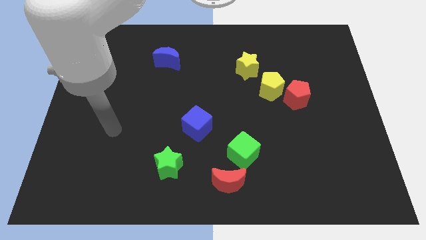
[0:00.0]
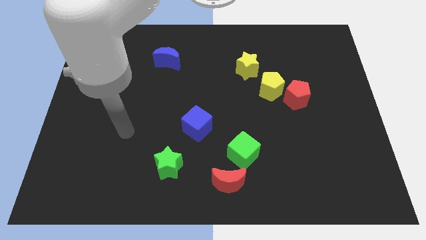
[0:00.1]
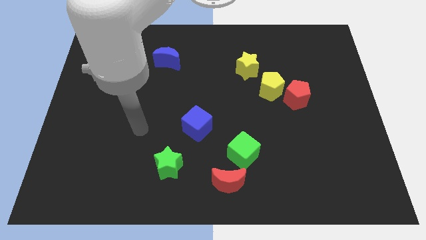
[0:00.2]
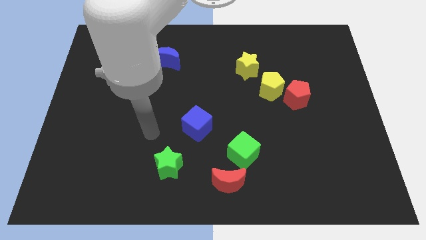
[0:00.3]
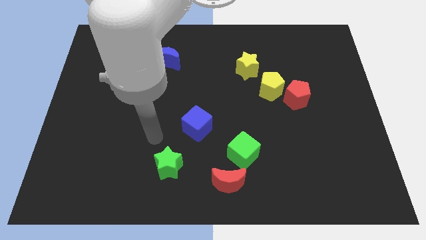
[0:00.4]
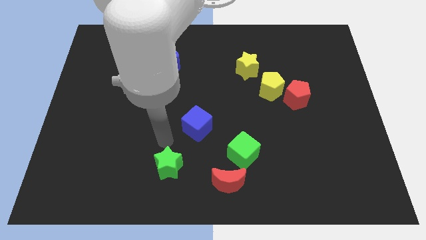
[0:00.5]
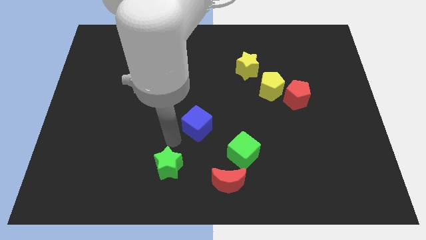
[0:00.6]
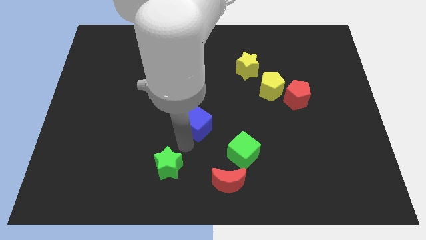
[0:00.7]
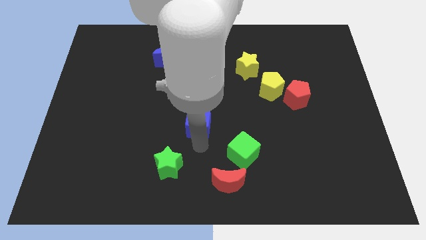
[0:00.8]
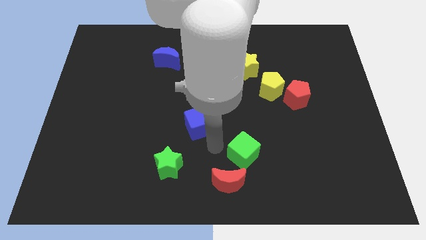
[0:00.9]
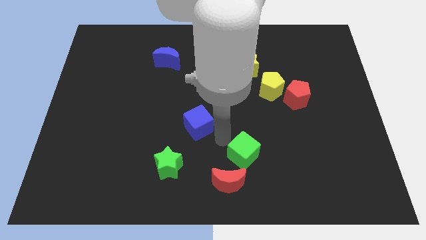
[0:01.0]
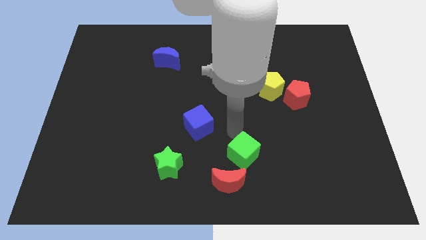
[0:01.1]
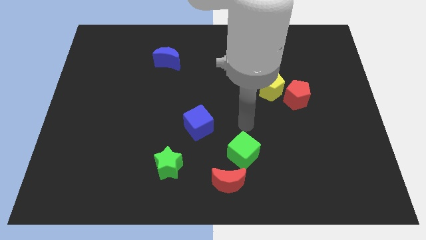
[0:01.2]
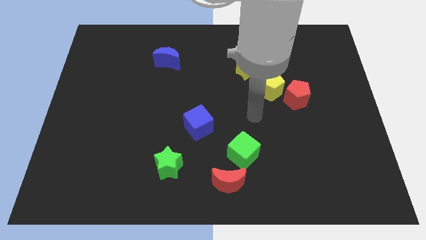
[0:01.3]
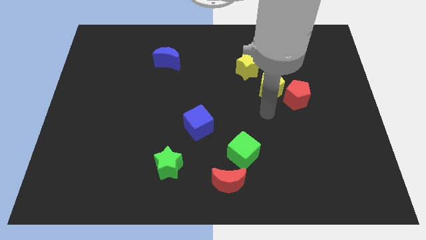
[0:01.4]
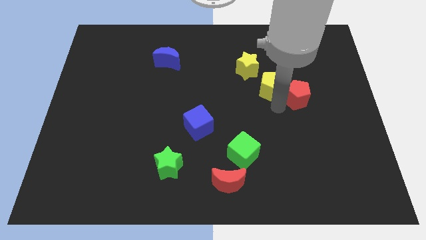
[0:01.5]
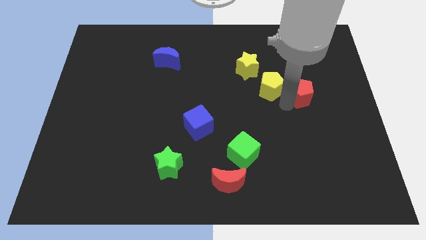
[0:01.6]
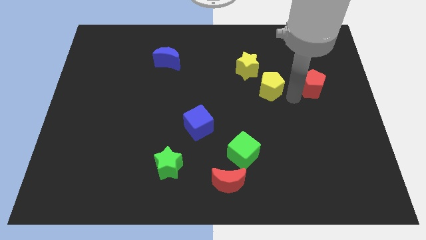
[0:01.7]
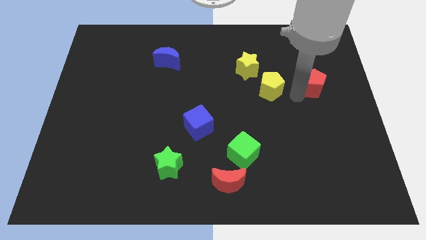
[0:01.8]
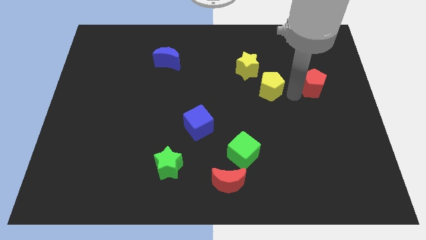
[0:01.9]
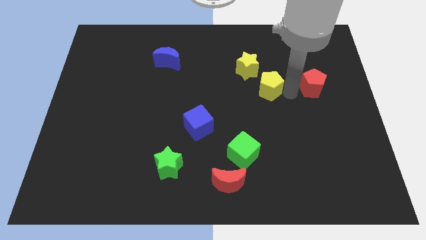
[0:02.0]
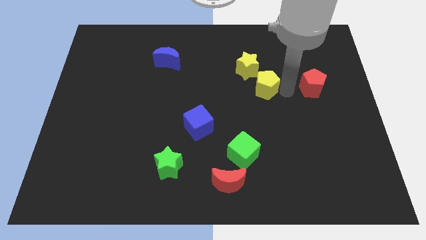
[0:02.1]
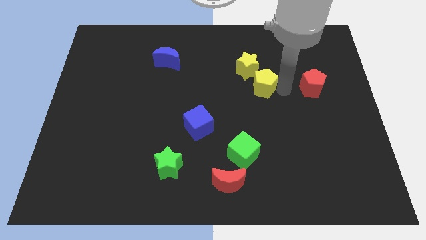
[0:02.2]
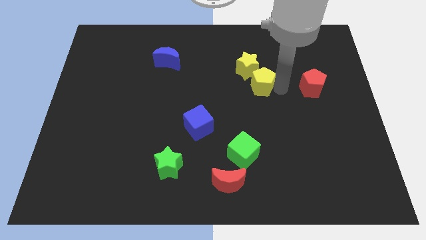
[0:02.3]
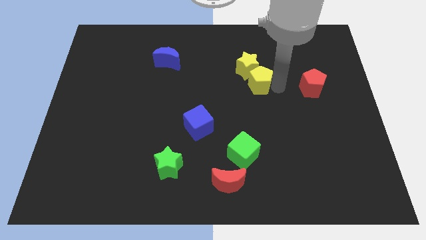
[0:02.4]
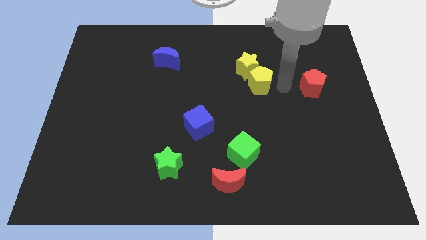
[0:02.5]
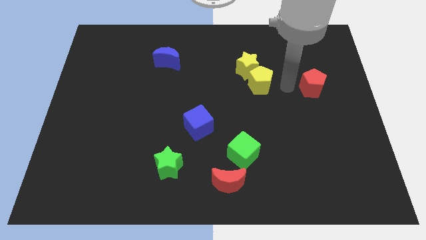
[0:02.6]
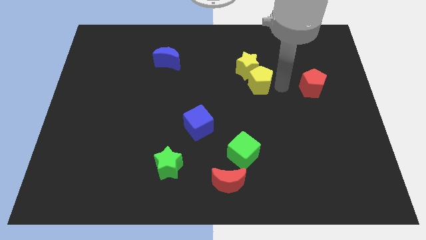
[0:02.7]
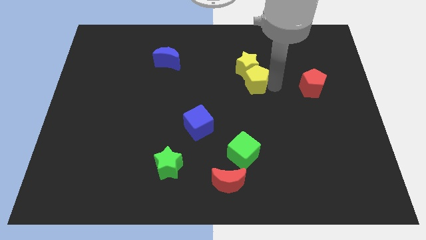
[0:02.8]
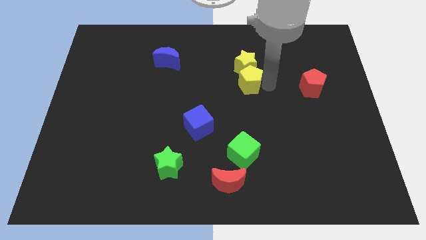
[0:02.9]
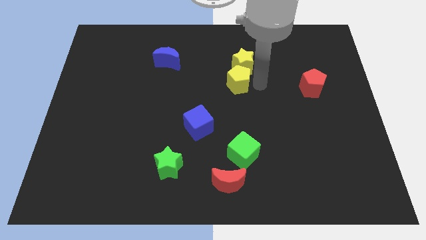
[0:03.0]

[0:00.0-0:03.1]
slightly push the yellow pentagon left

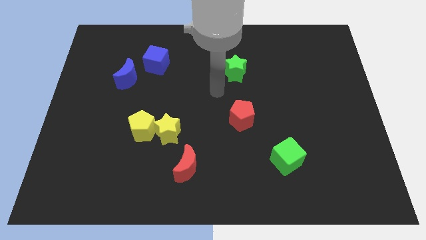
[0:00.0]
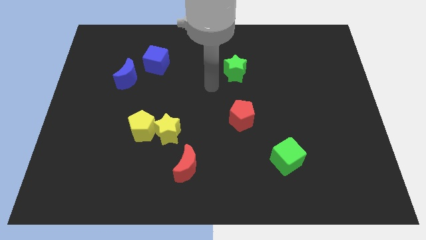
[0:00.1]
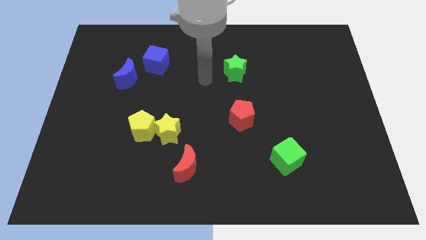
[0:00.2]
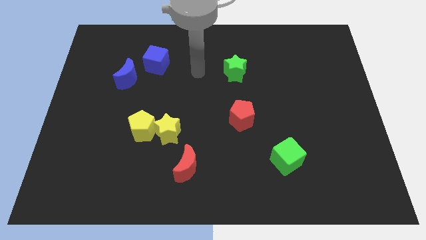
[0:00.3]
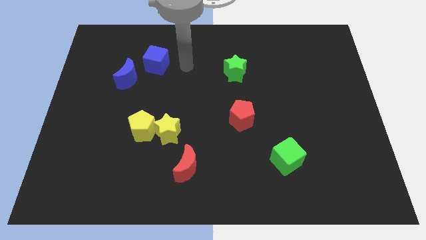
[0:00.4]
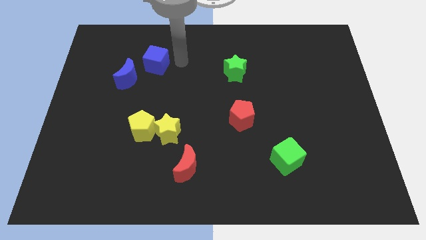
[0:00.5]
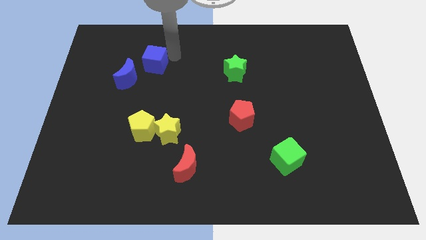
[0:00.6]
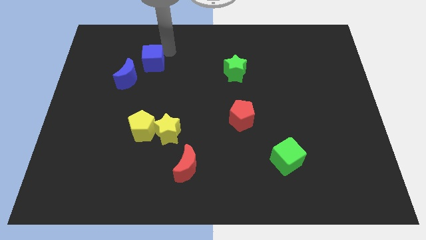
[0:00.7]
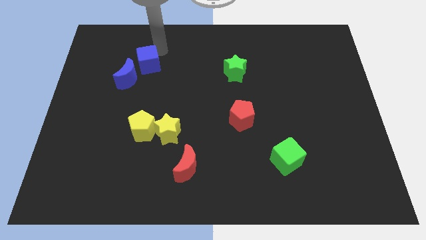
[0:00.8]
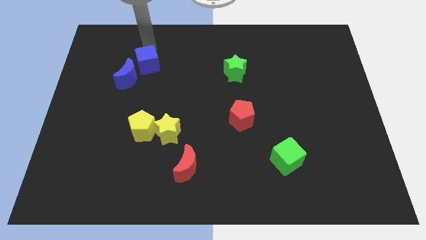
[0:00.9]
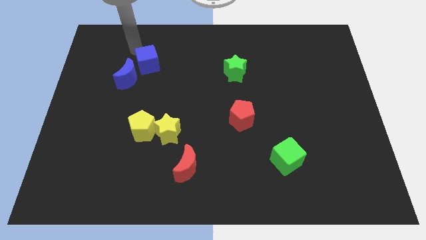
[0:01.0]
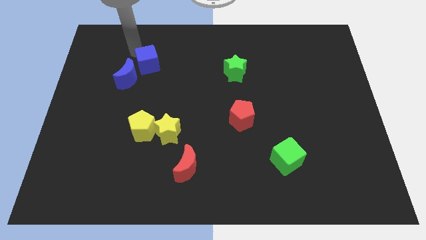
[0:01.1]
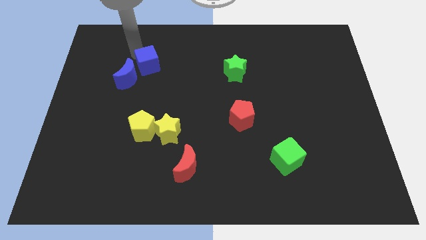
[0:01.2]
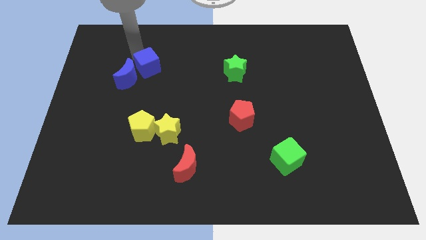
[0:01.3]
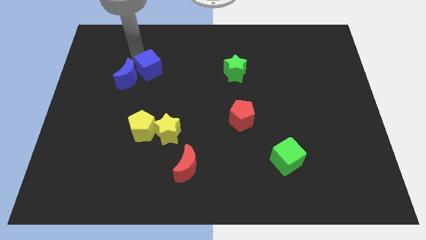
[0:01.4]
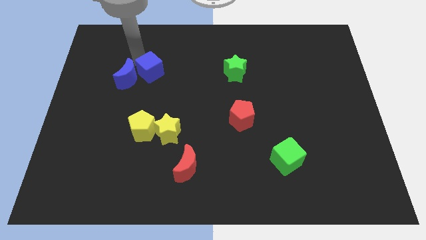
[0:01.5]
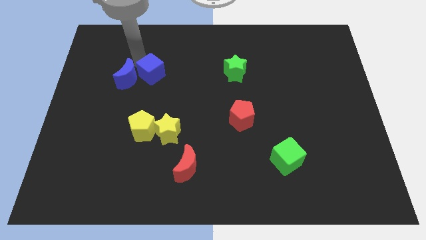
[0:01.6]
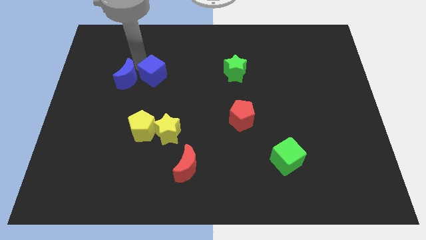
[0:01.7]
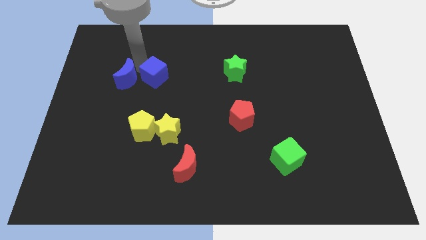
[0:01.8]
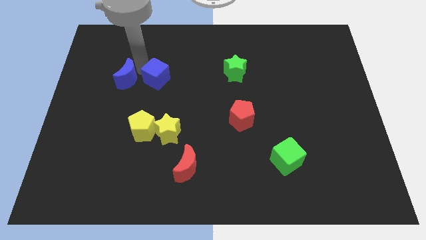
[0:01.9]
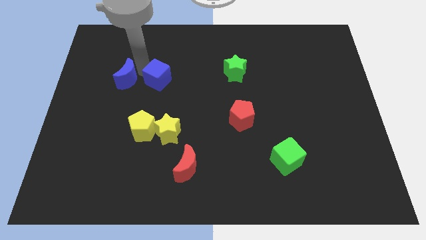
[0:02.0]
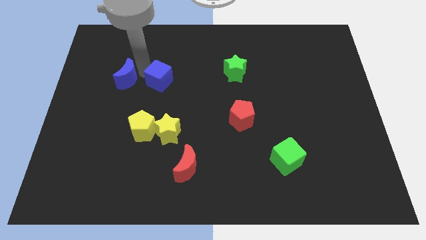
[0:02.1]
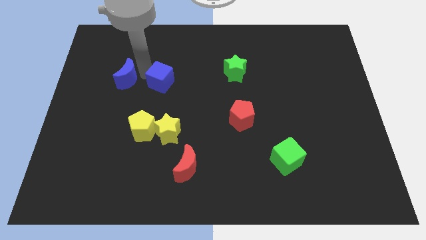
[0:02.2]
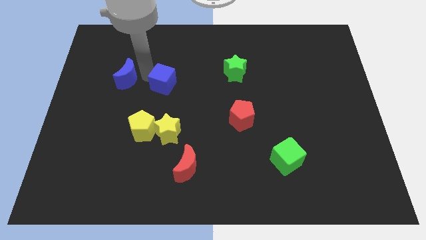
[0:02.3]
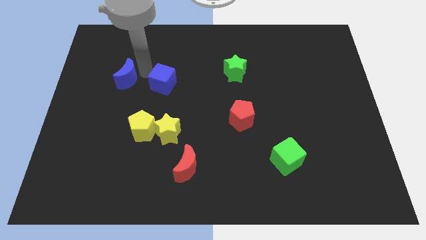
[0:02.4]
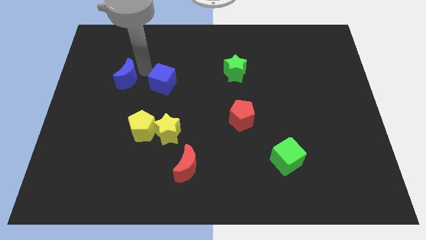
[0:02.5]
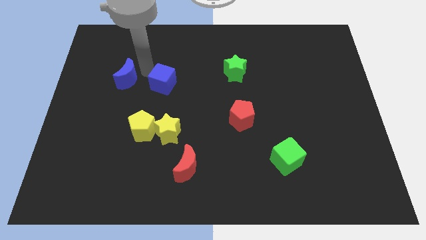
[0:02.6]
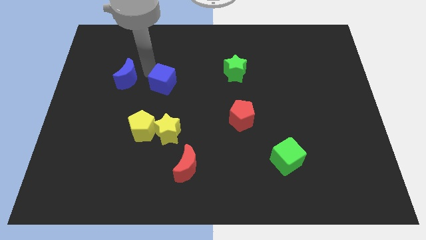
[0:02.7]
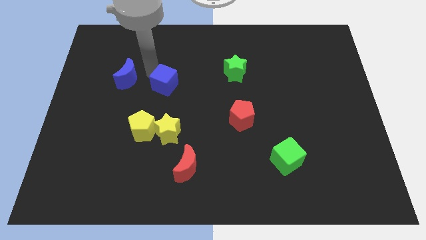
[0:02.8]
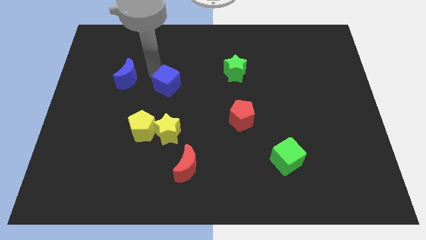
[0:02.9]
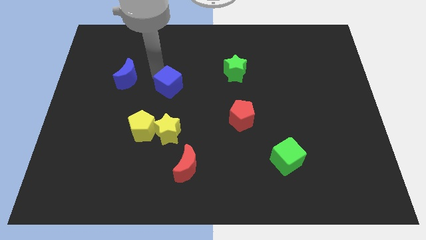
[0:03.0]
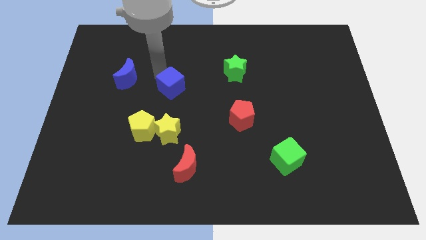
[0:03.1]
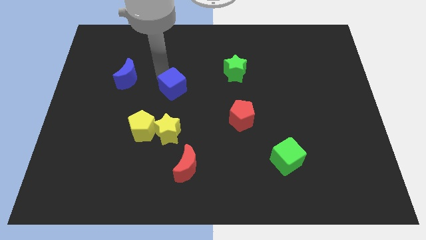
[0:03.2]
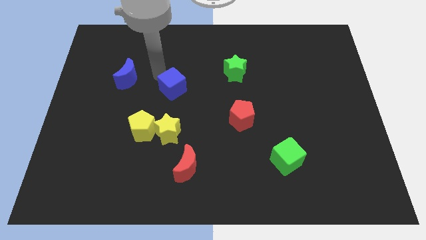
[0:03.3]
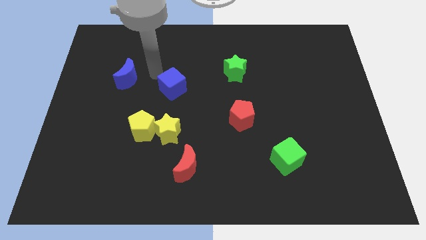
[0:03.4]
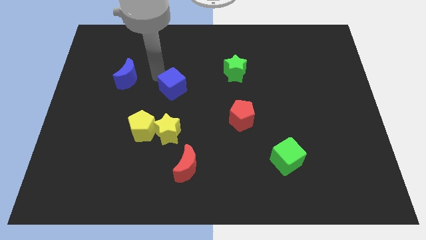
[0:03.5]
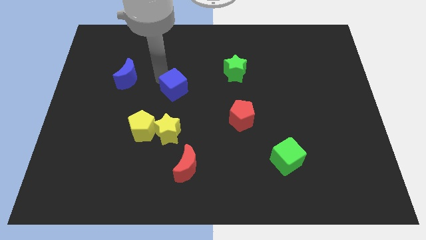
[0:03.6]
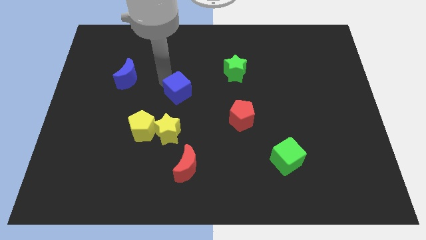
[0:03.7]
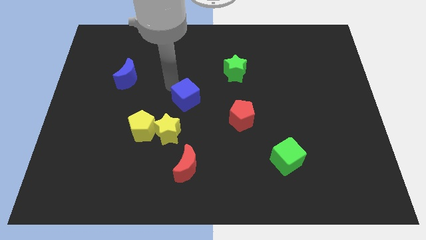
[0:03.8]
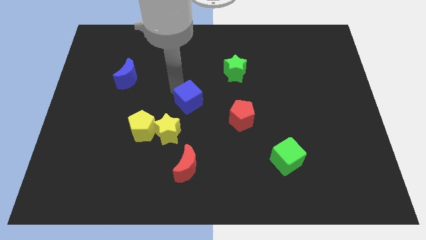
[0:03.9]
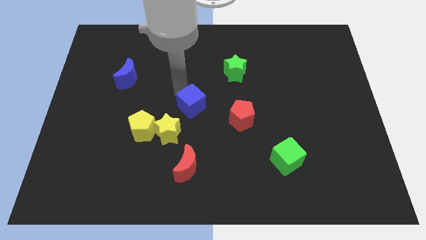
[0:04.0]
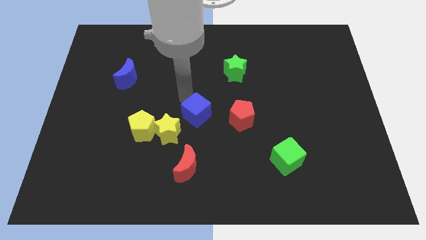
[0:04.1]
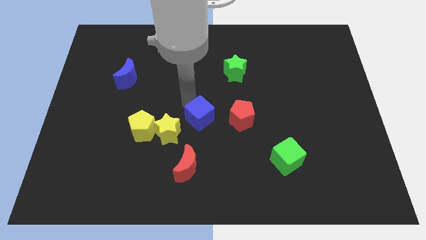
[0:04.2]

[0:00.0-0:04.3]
move the blue cube downwards and right

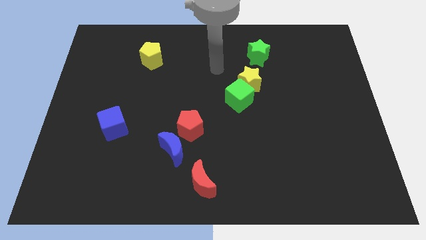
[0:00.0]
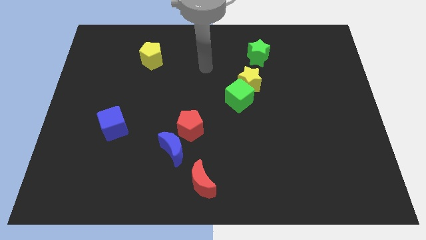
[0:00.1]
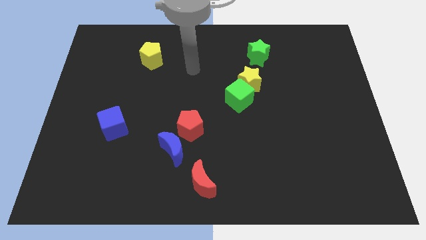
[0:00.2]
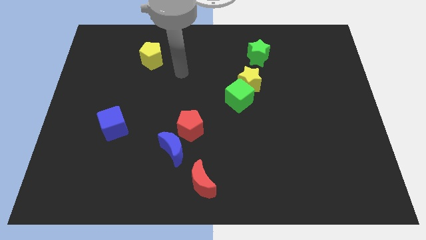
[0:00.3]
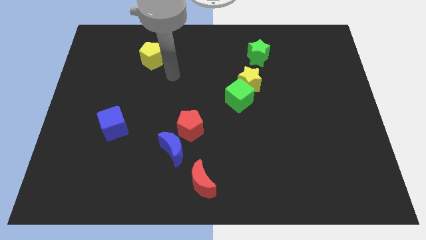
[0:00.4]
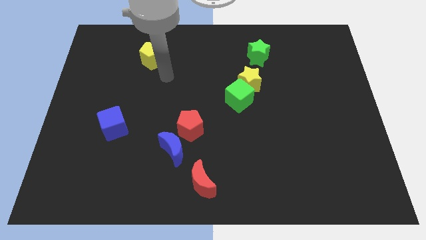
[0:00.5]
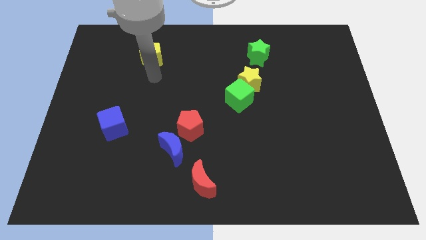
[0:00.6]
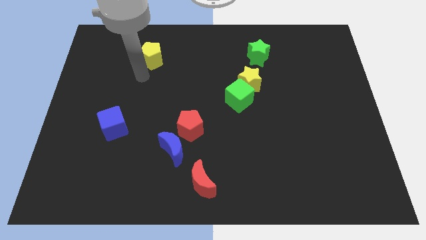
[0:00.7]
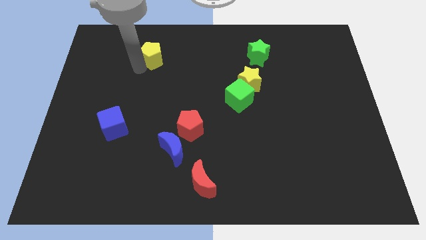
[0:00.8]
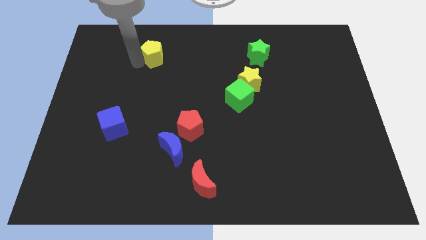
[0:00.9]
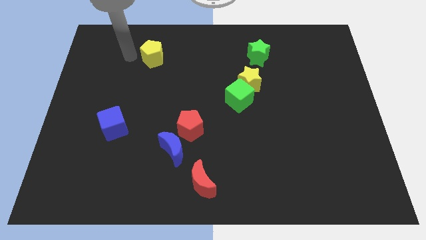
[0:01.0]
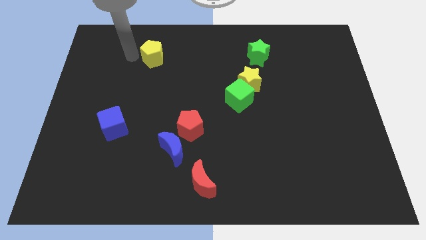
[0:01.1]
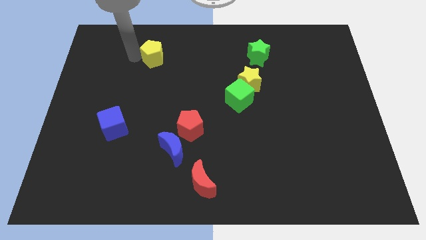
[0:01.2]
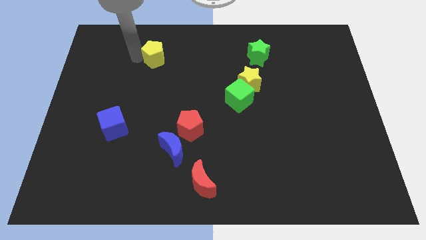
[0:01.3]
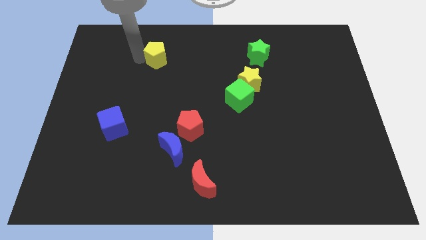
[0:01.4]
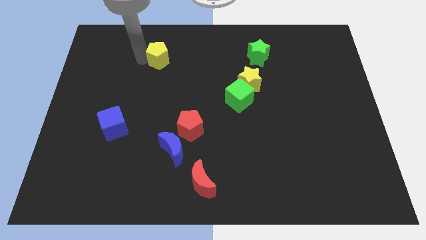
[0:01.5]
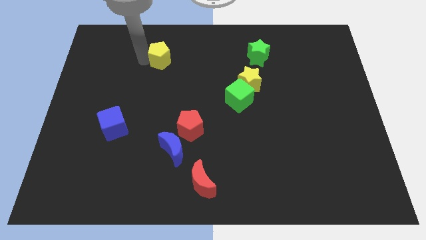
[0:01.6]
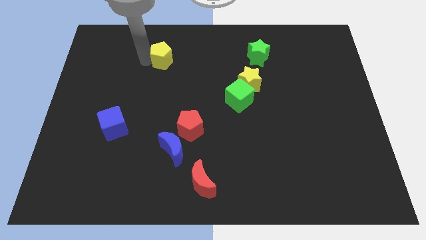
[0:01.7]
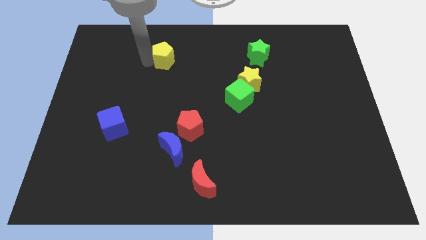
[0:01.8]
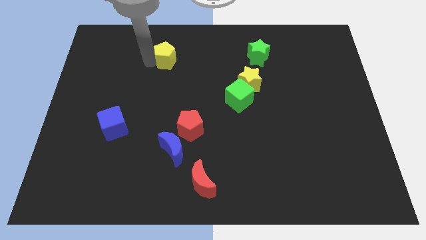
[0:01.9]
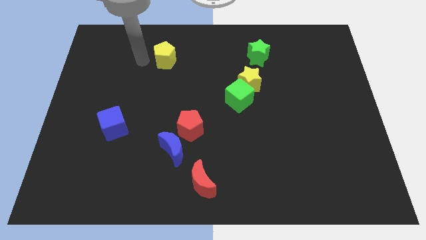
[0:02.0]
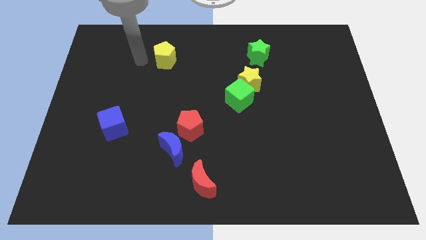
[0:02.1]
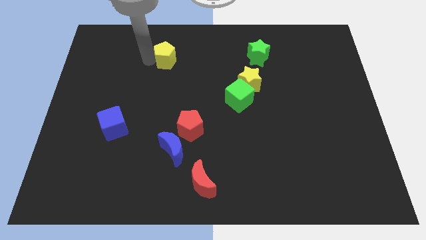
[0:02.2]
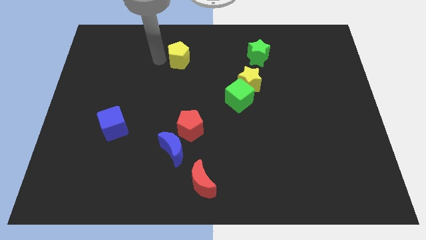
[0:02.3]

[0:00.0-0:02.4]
move the yellow pentagon a little bit to the right
